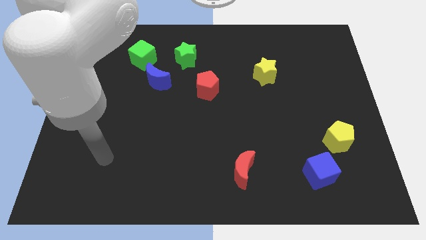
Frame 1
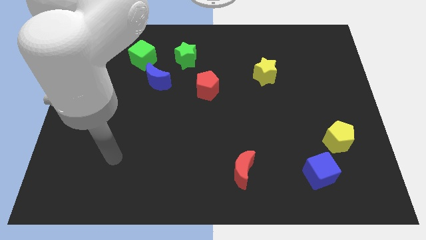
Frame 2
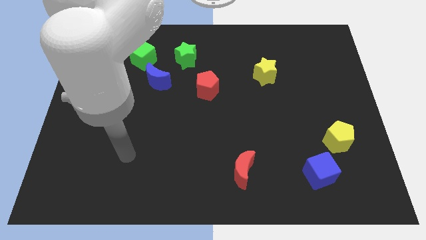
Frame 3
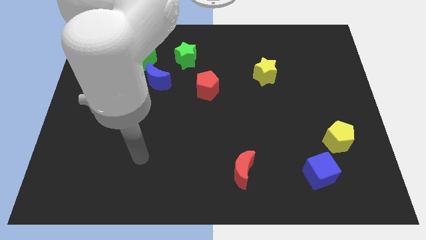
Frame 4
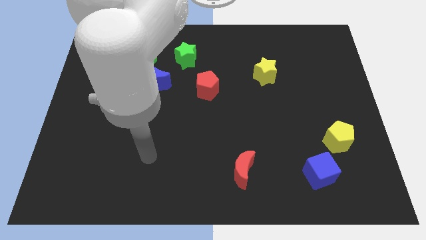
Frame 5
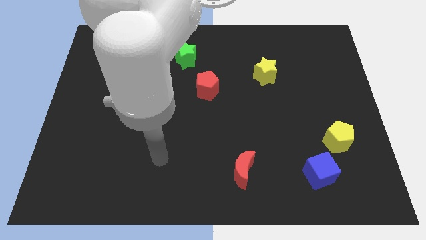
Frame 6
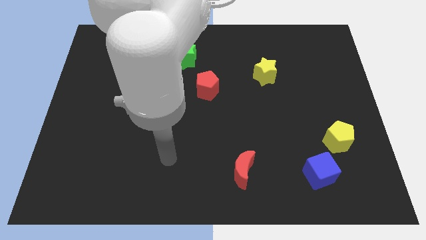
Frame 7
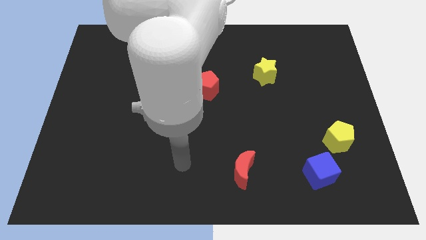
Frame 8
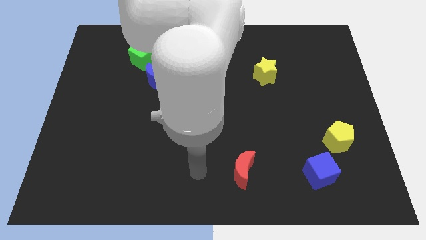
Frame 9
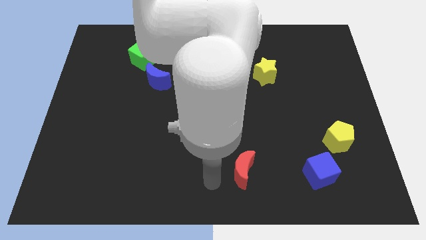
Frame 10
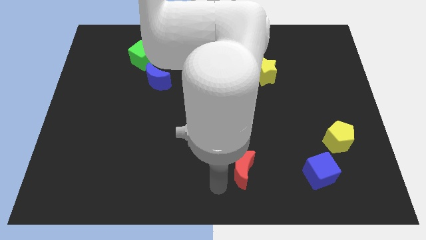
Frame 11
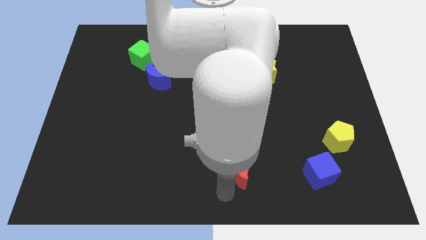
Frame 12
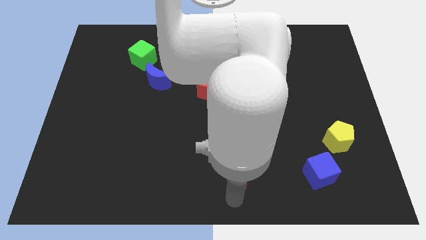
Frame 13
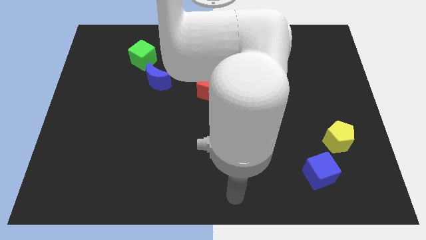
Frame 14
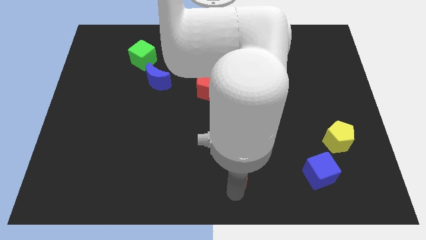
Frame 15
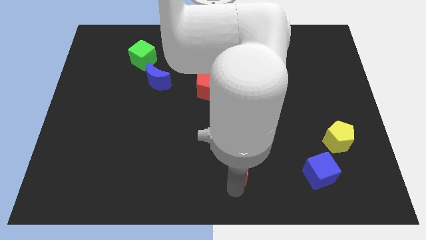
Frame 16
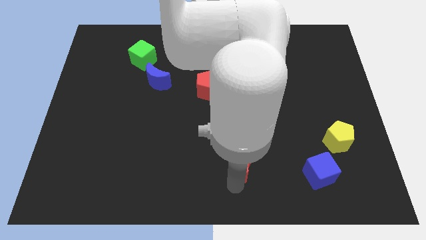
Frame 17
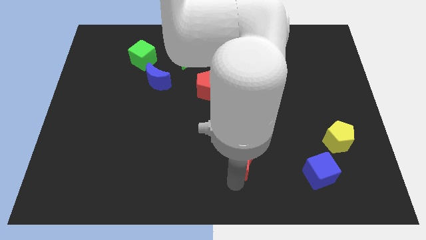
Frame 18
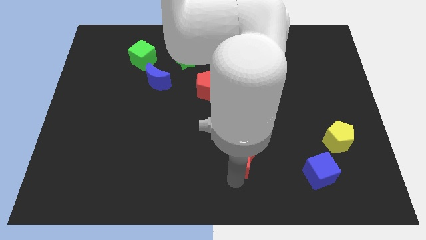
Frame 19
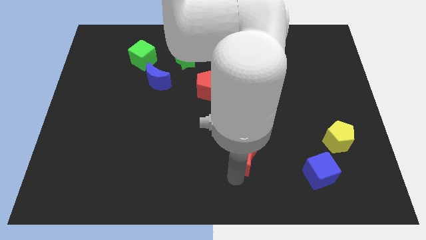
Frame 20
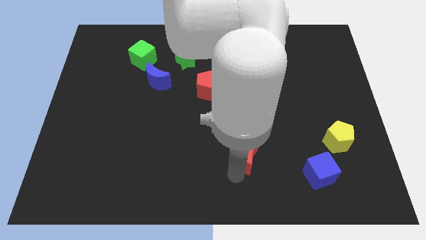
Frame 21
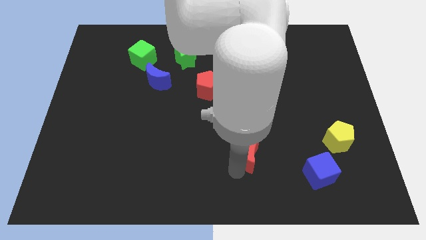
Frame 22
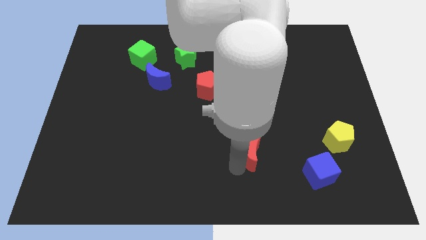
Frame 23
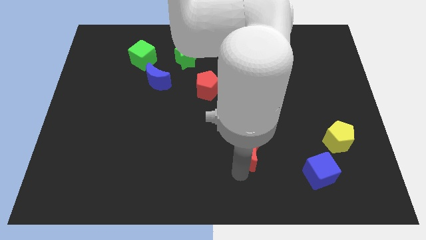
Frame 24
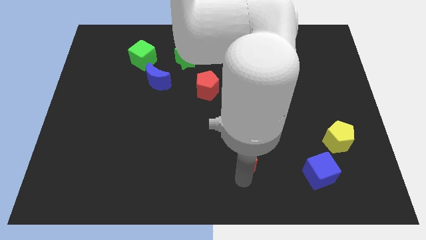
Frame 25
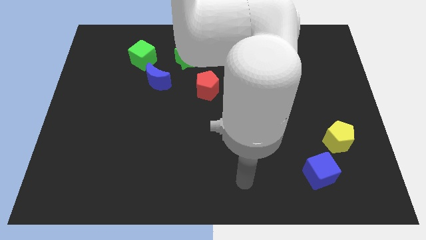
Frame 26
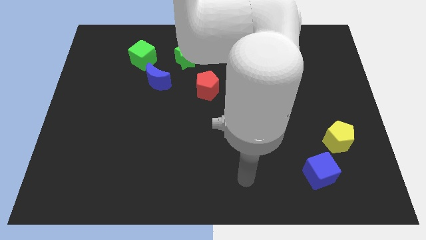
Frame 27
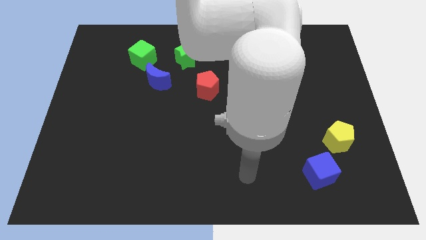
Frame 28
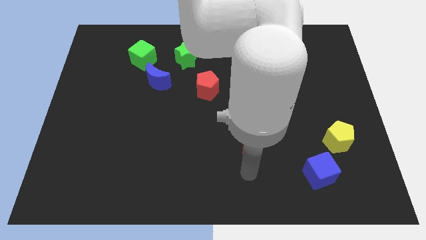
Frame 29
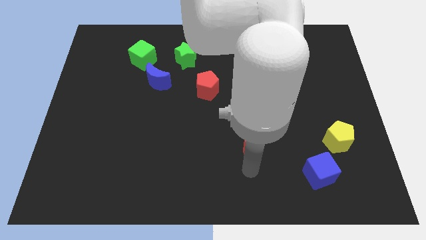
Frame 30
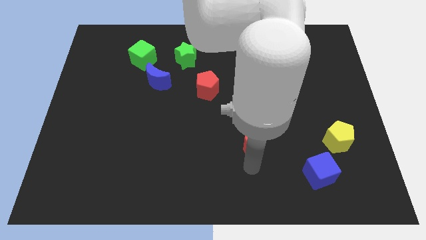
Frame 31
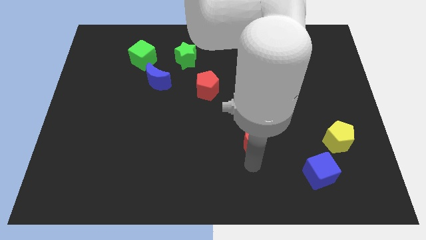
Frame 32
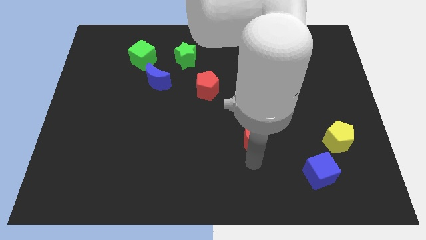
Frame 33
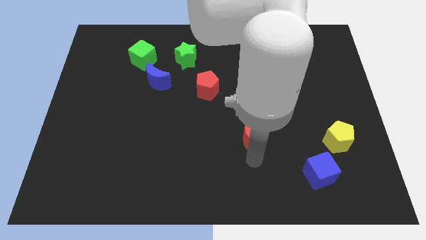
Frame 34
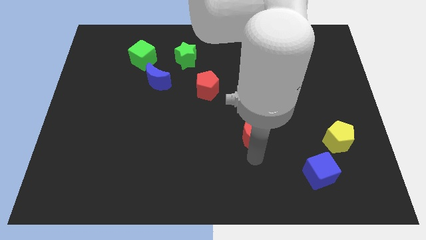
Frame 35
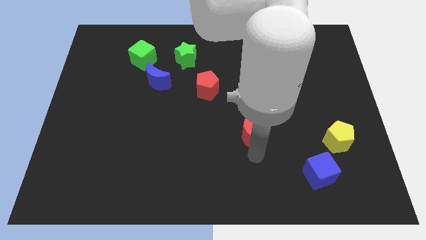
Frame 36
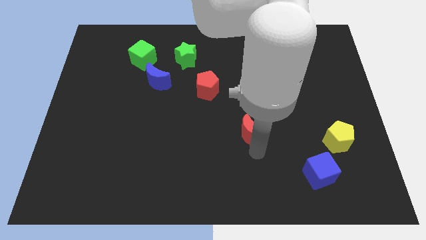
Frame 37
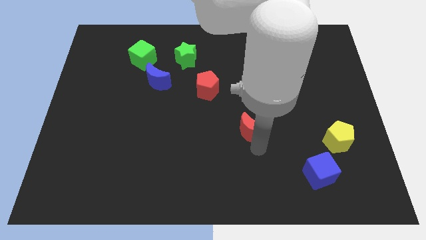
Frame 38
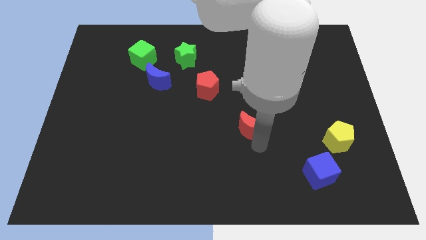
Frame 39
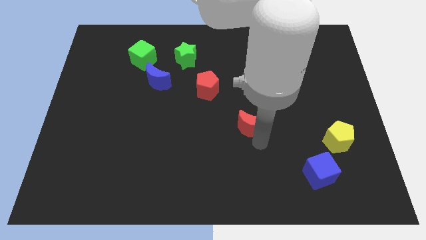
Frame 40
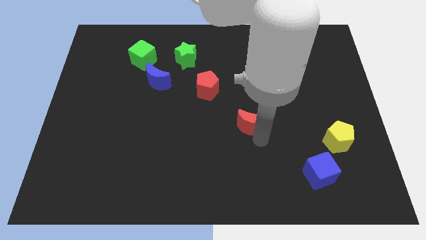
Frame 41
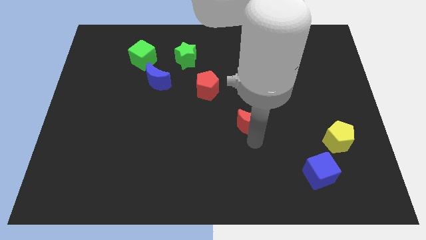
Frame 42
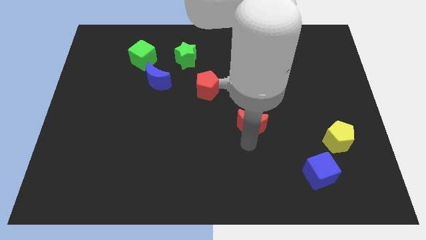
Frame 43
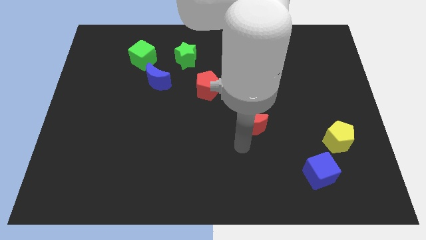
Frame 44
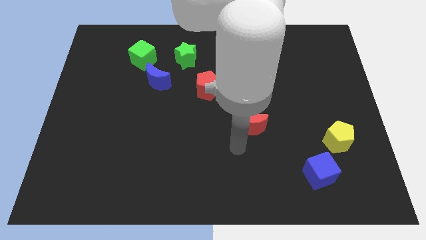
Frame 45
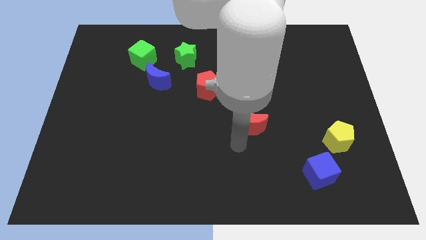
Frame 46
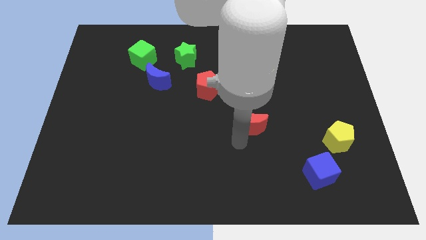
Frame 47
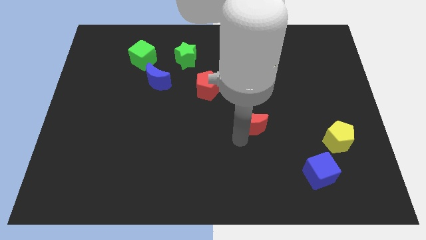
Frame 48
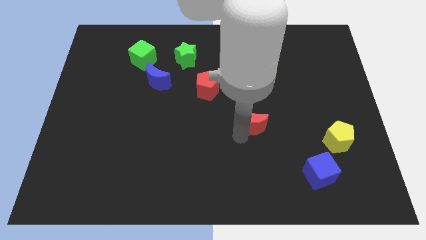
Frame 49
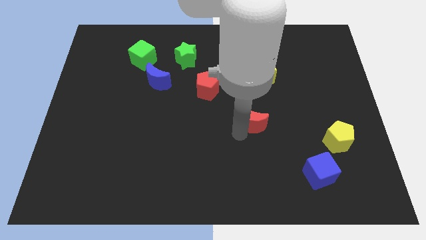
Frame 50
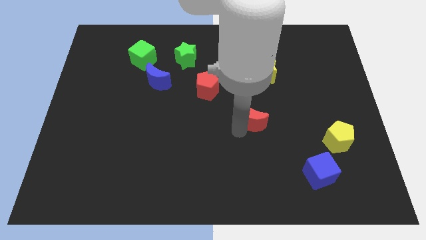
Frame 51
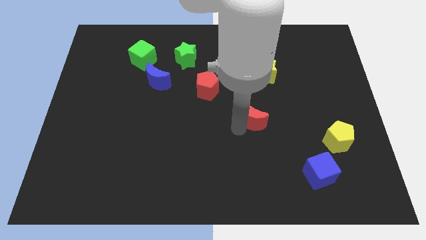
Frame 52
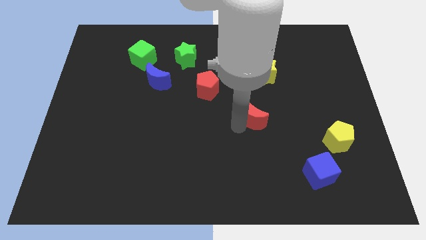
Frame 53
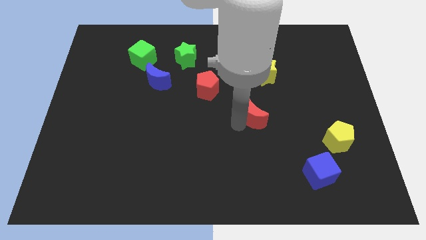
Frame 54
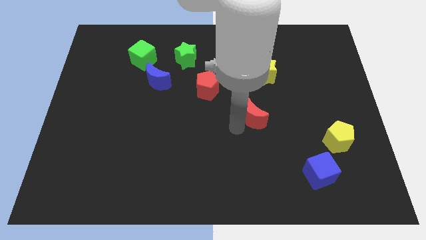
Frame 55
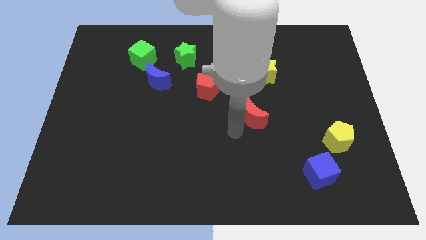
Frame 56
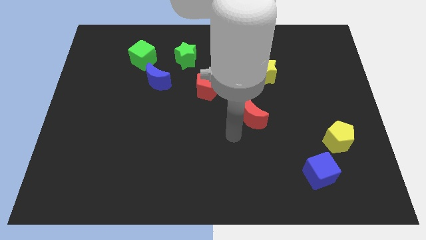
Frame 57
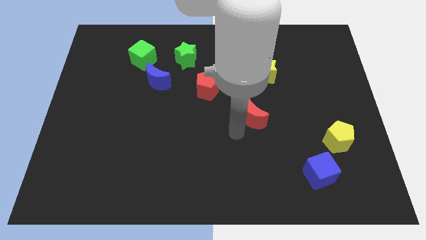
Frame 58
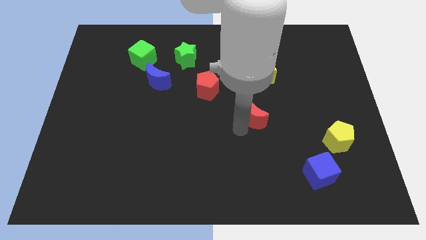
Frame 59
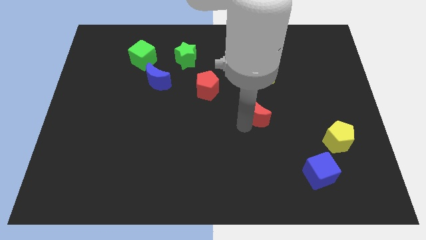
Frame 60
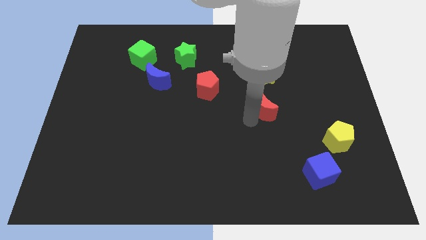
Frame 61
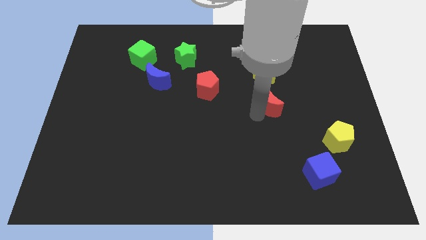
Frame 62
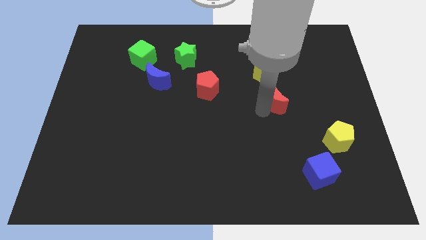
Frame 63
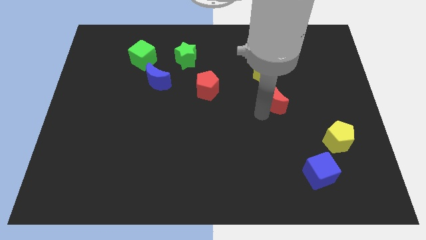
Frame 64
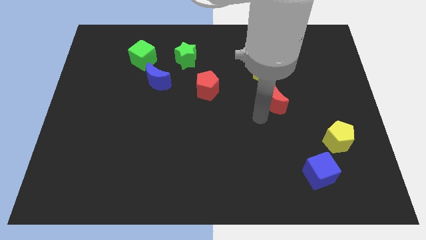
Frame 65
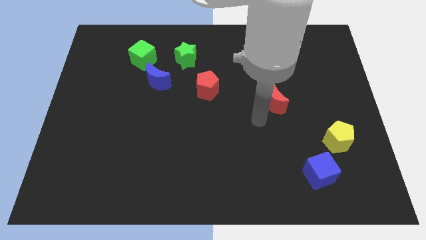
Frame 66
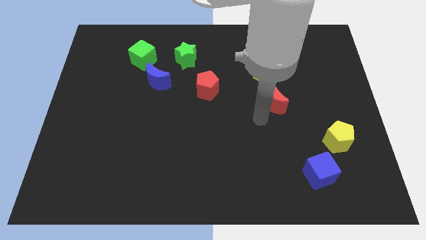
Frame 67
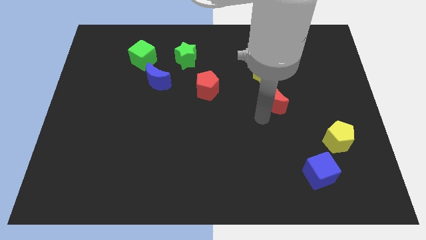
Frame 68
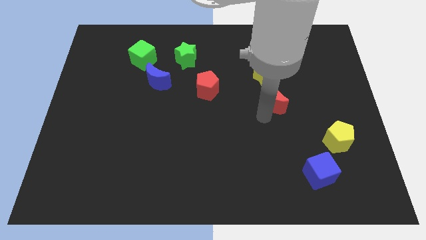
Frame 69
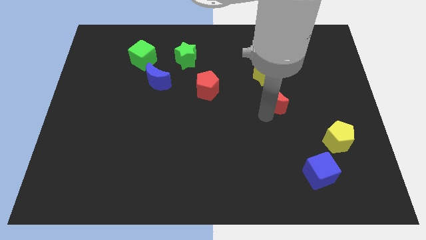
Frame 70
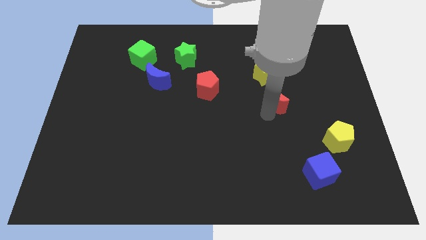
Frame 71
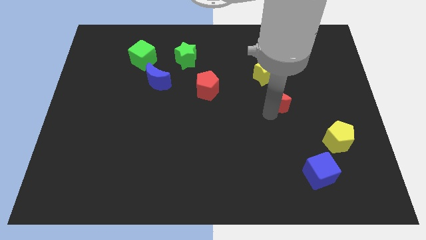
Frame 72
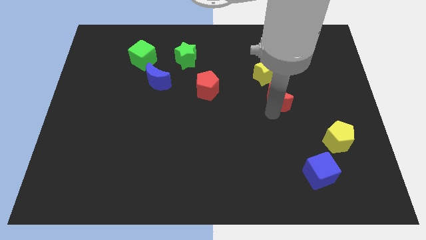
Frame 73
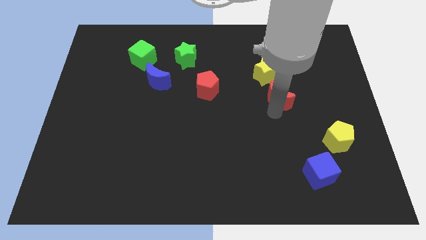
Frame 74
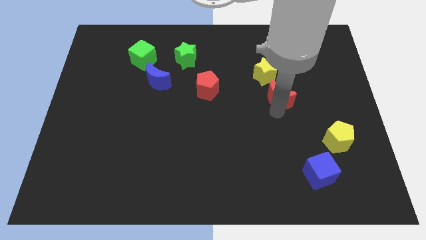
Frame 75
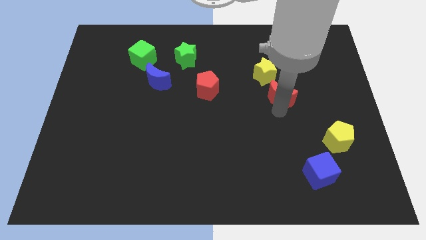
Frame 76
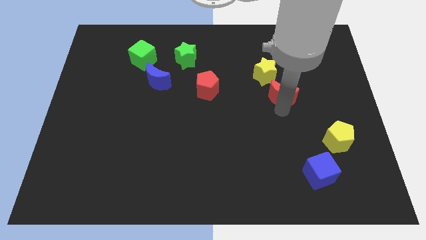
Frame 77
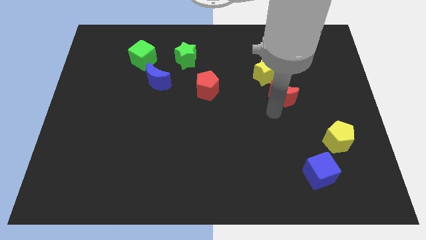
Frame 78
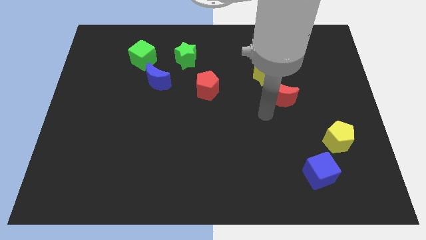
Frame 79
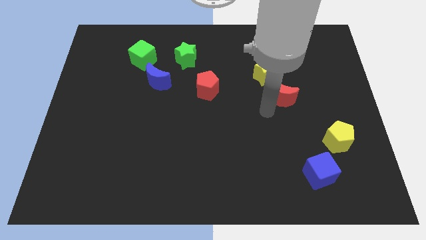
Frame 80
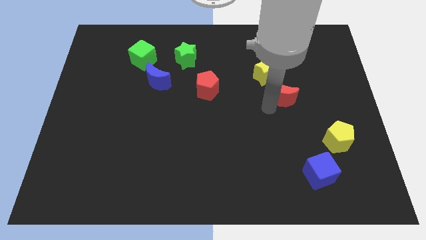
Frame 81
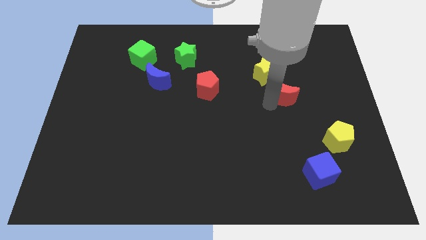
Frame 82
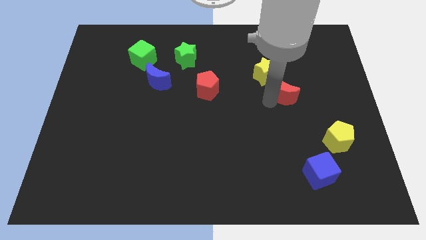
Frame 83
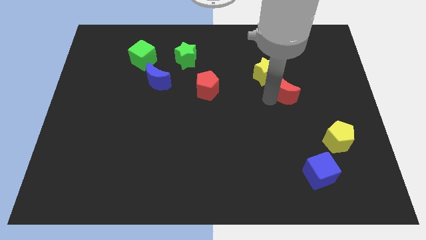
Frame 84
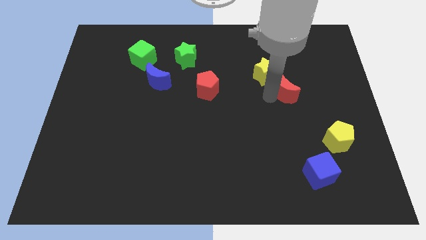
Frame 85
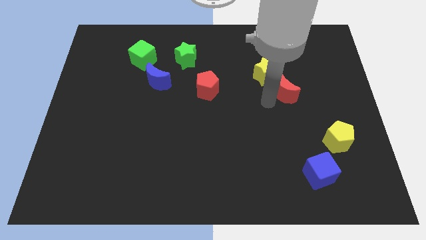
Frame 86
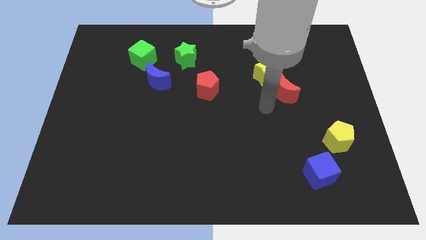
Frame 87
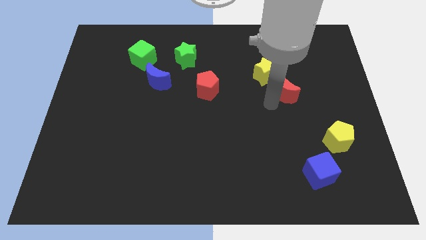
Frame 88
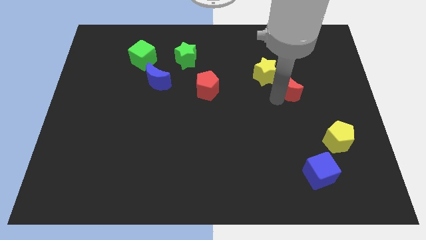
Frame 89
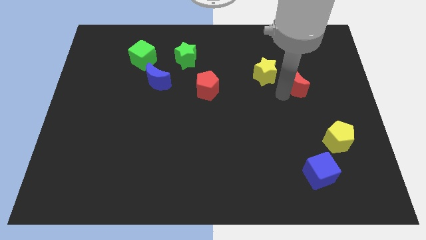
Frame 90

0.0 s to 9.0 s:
push the red moon to the right side of the yellow star
